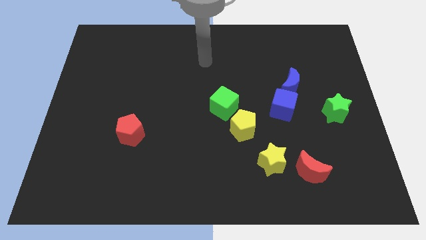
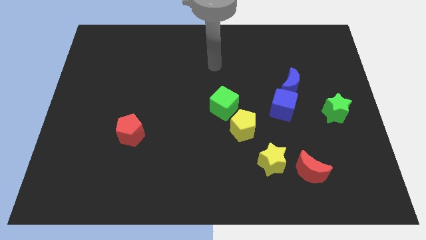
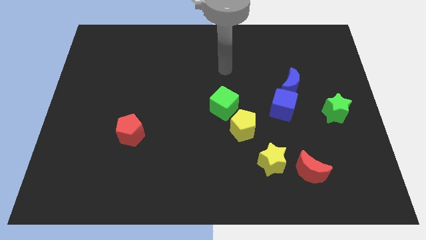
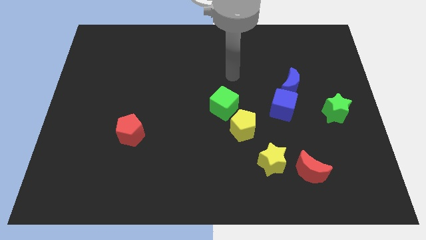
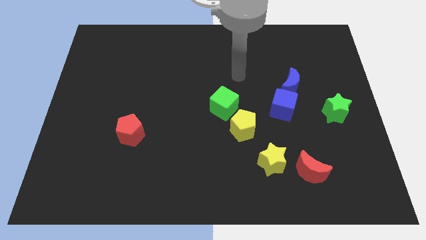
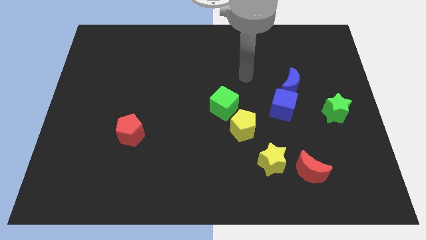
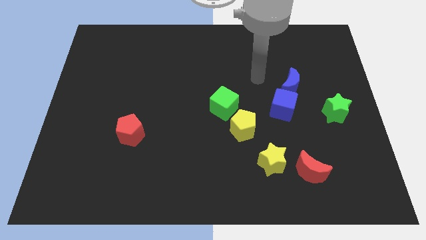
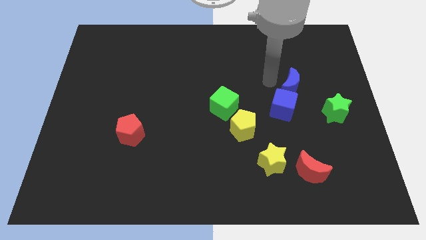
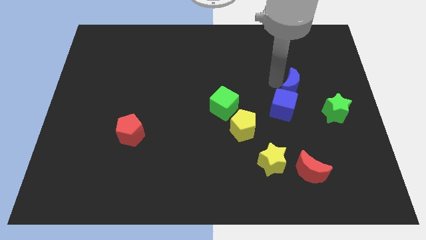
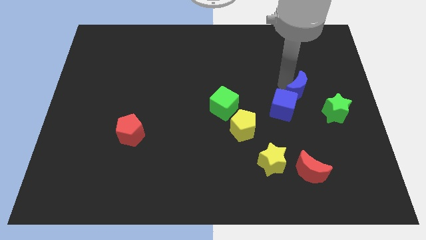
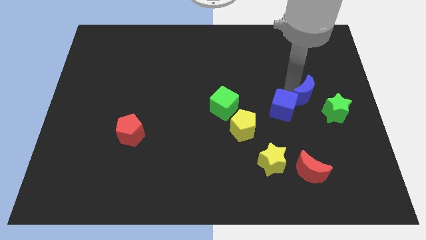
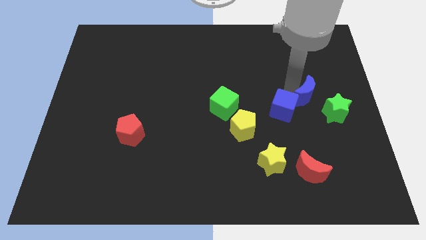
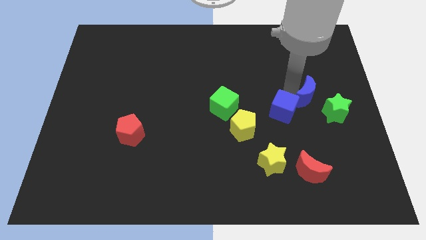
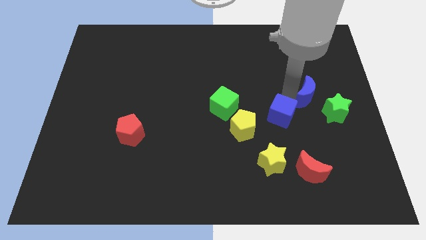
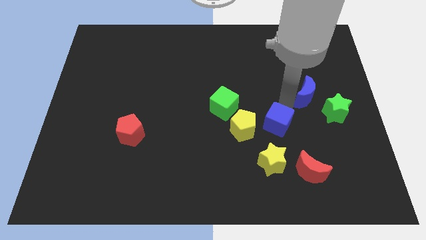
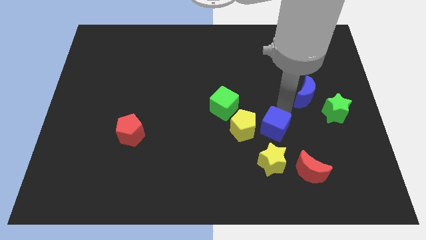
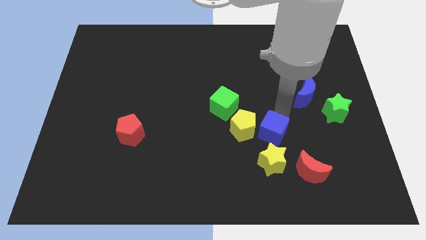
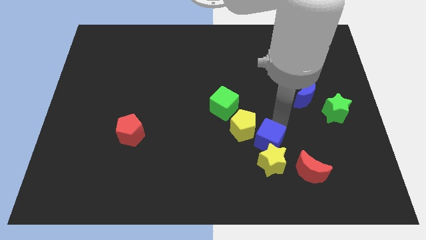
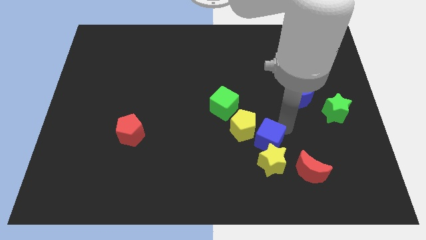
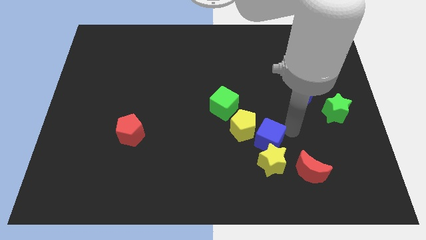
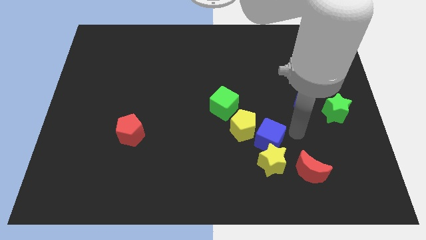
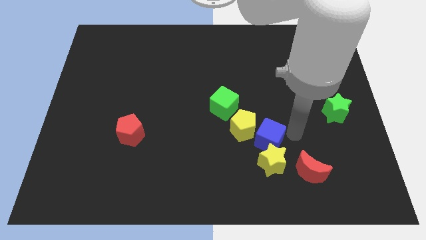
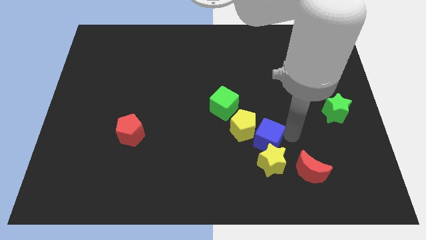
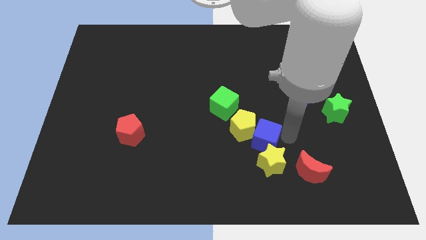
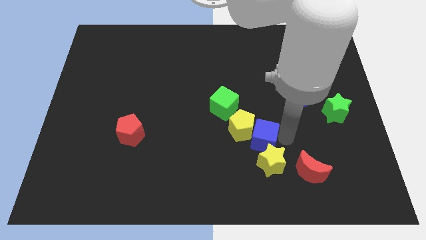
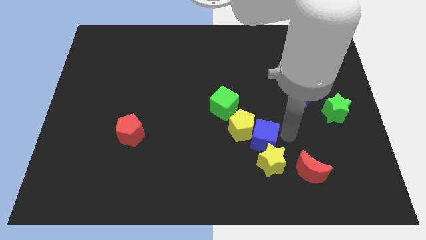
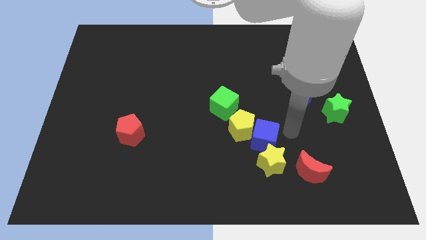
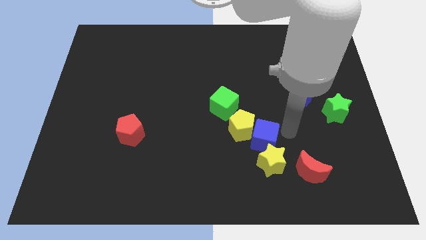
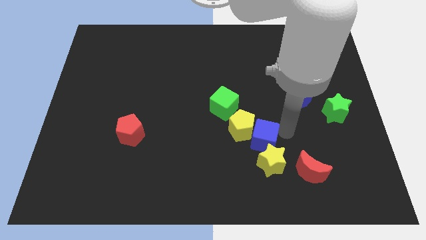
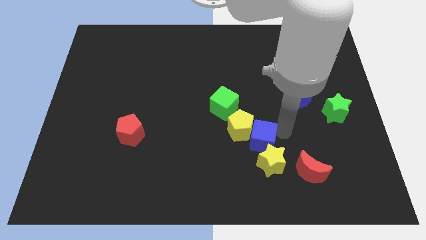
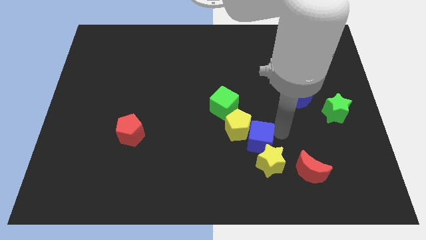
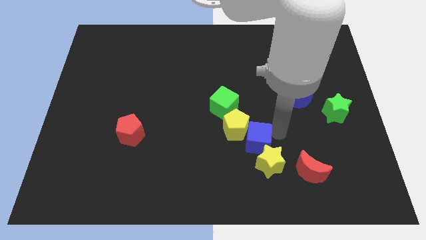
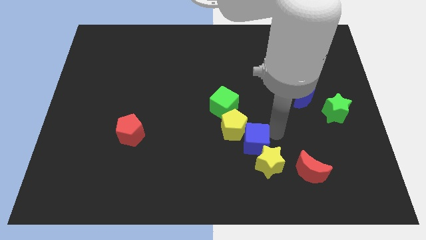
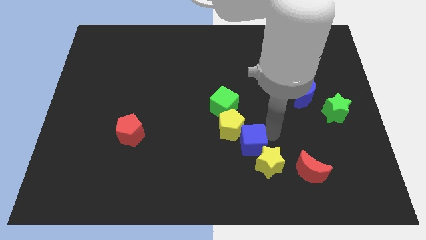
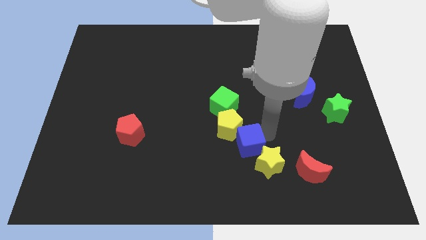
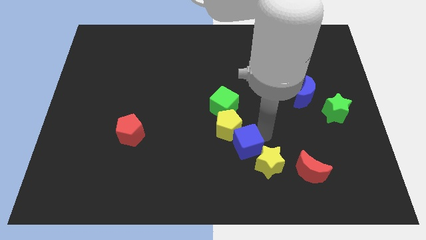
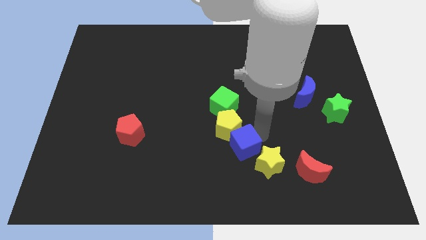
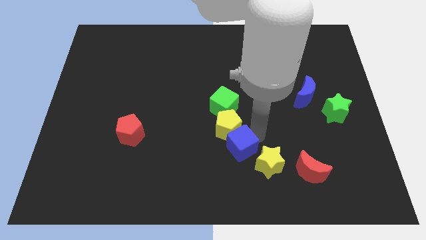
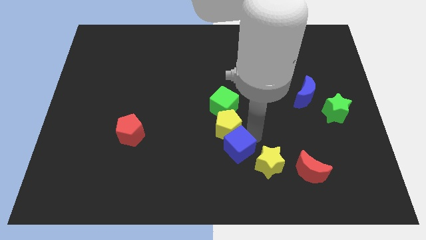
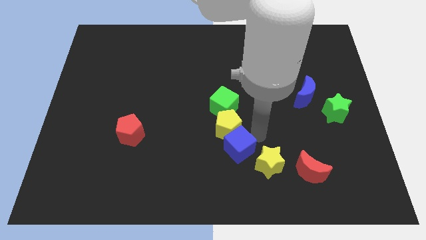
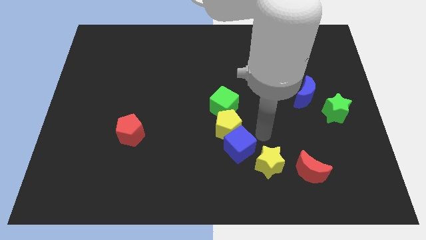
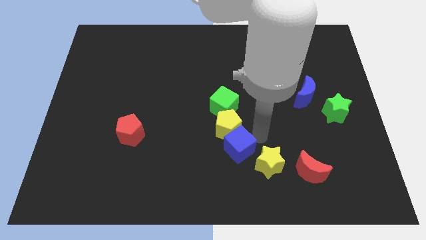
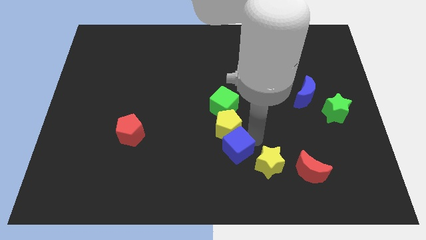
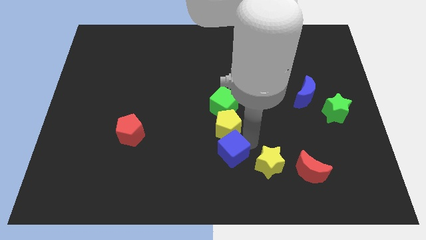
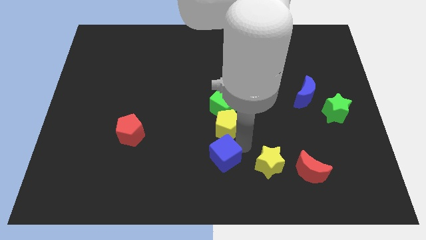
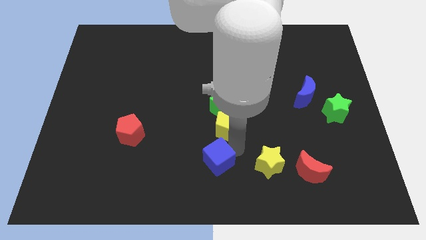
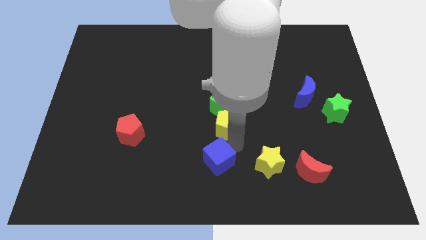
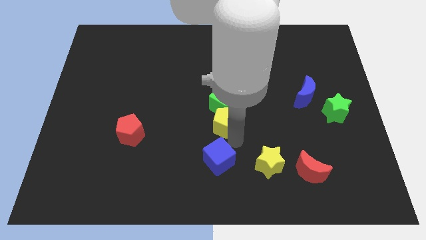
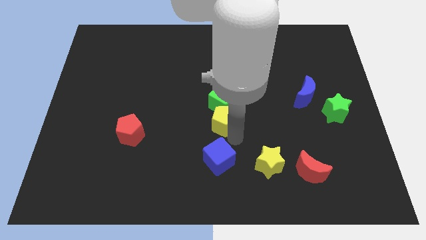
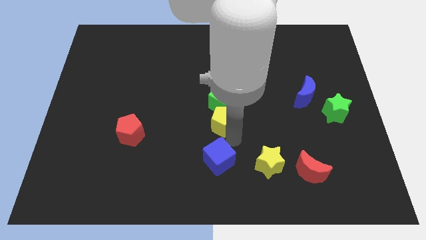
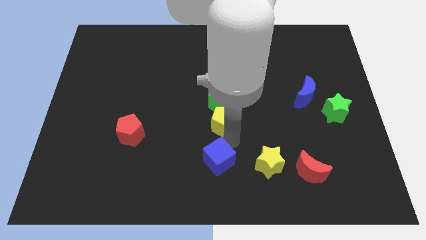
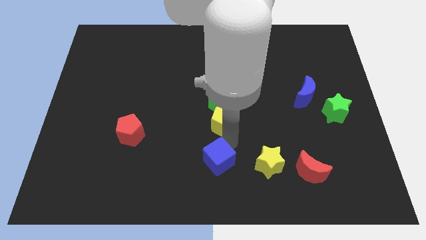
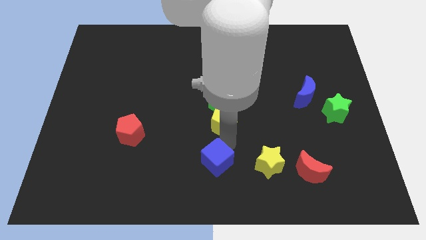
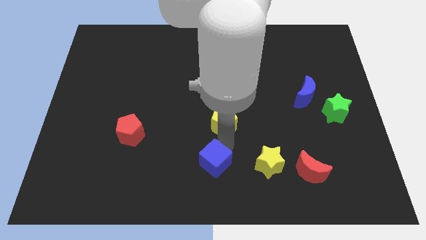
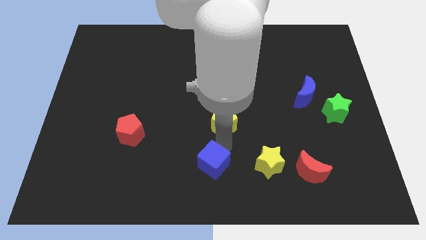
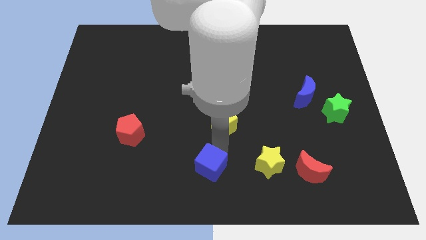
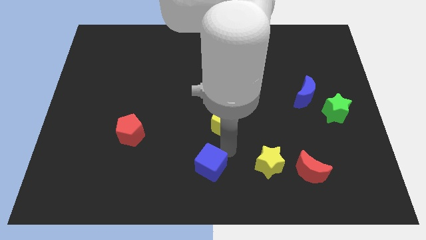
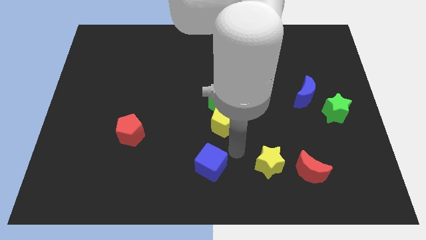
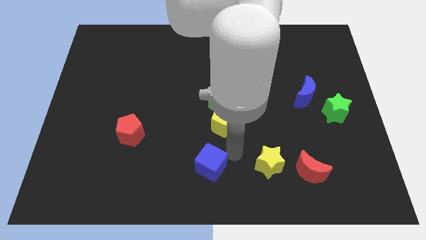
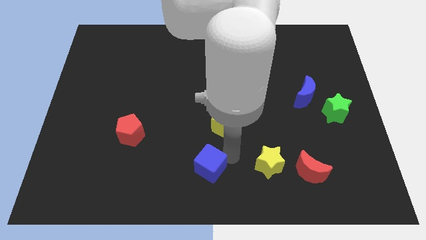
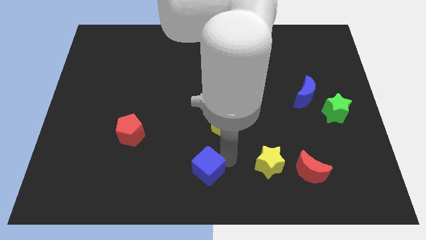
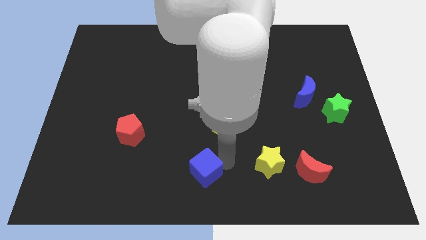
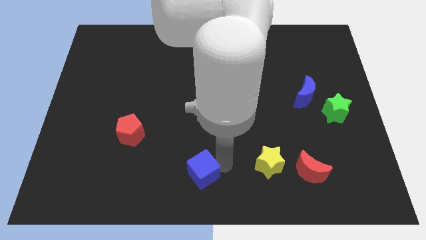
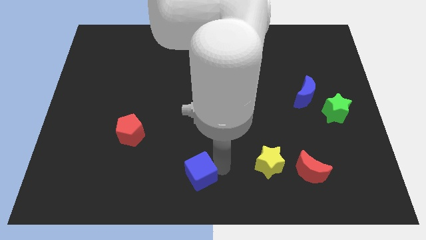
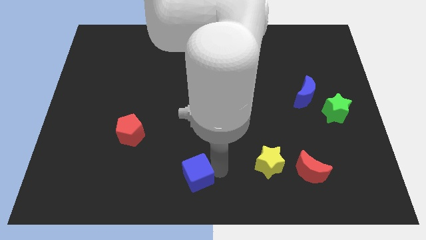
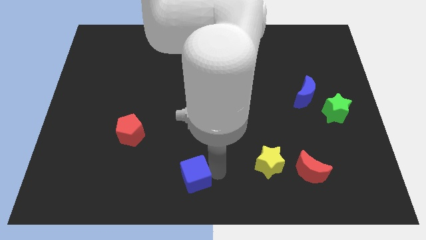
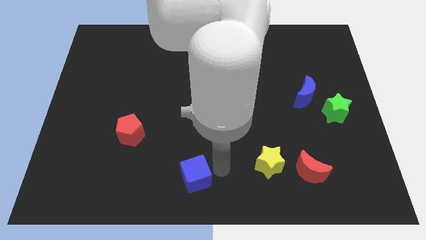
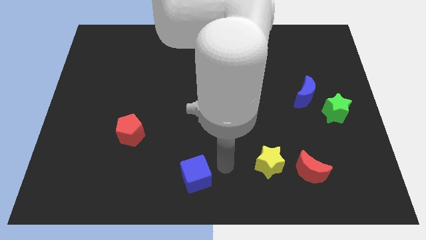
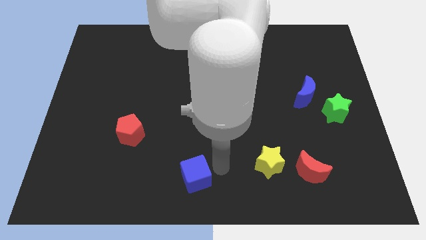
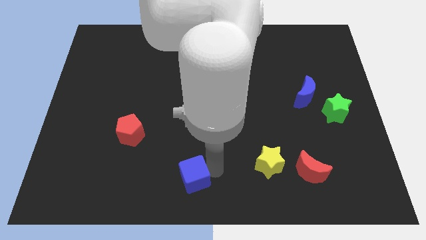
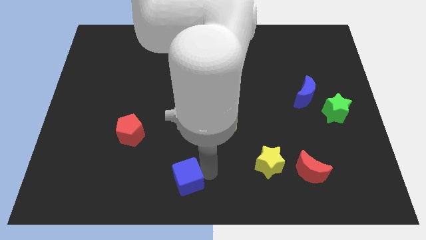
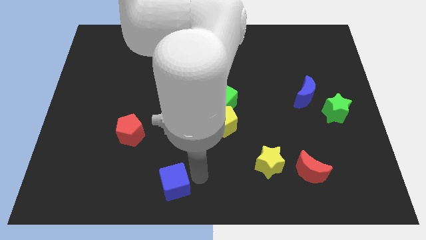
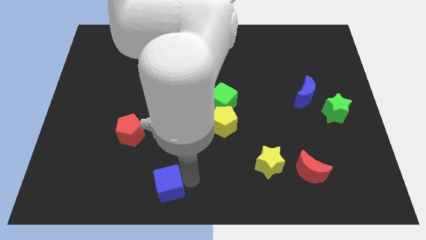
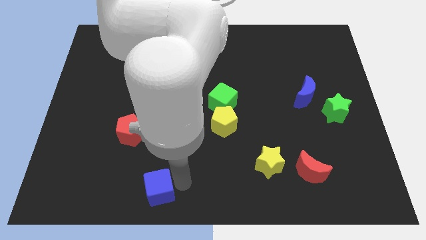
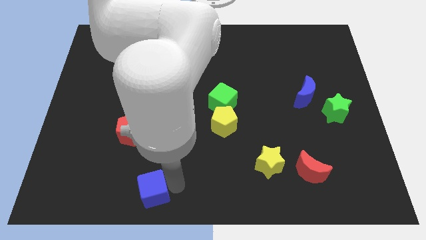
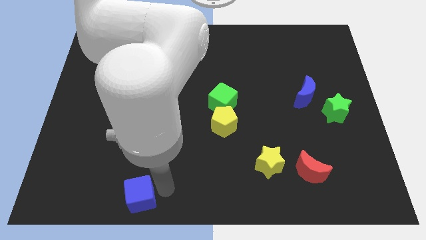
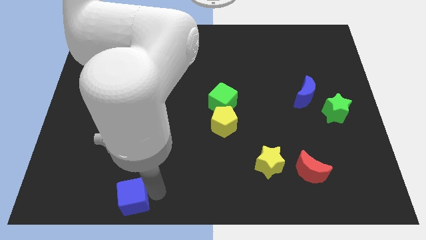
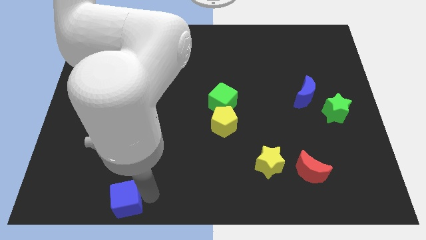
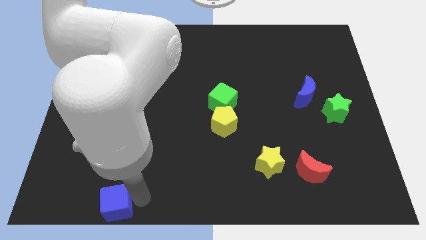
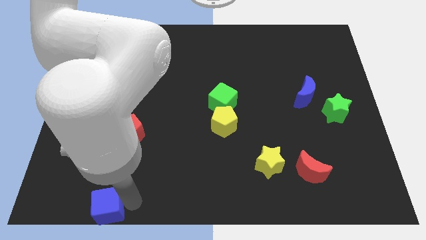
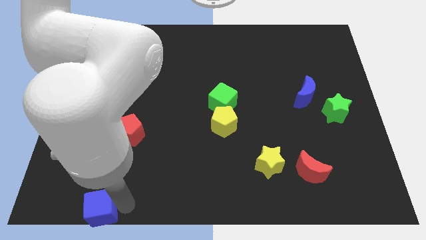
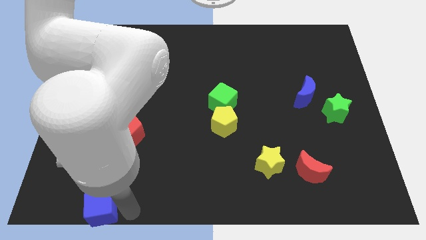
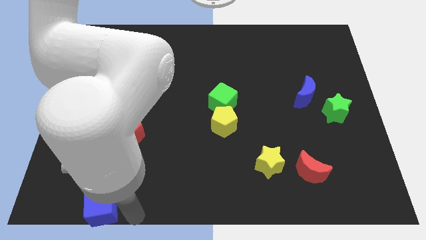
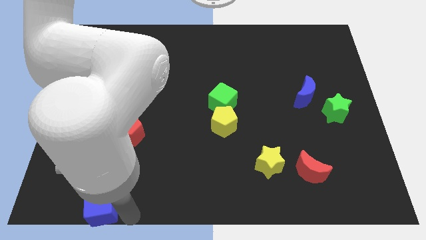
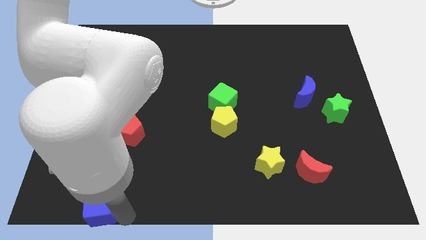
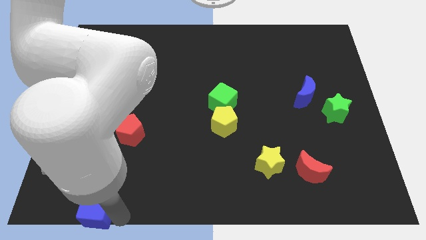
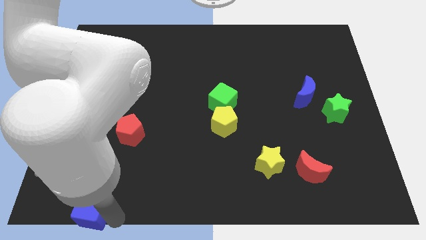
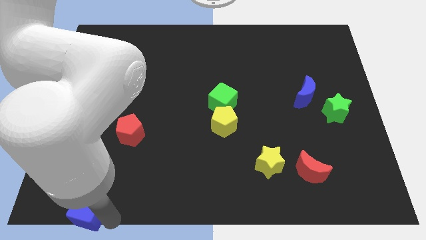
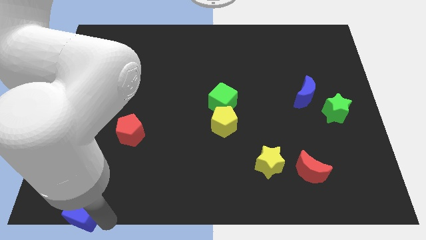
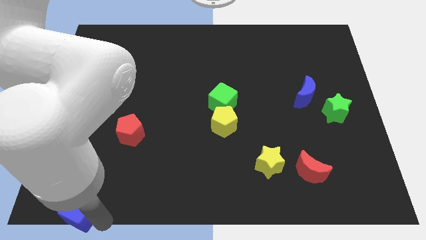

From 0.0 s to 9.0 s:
slide the blue cube to the bottom left
